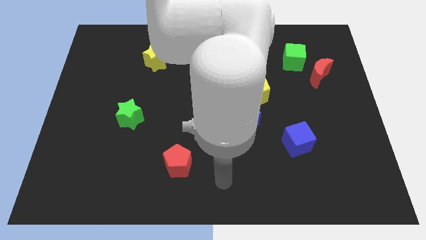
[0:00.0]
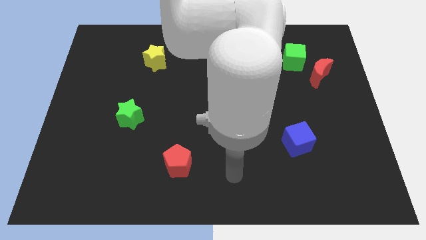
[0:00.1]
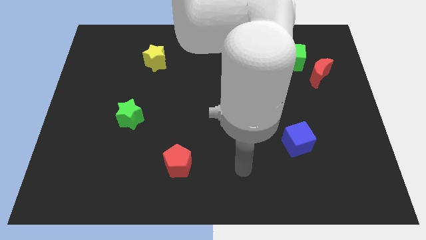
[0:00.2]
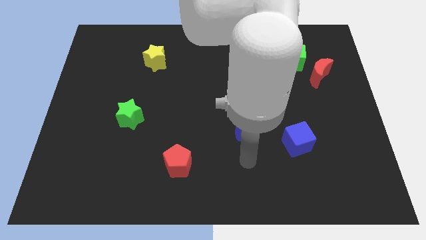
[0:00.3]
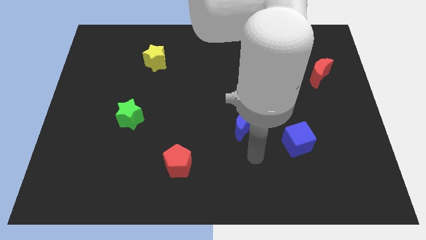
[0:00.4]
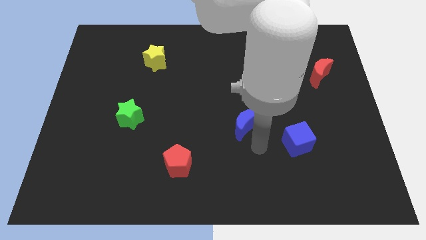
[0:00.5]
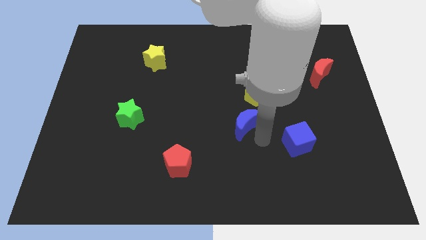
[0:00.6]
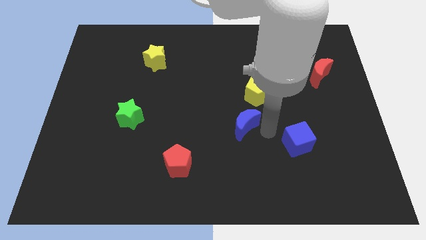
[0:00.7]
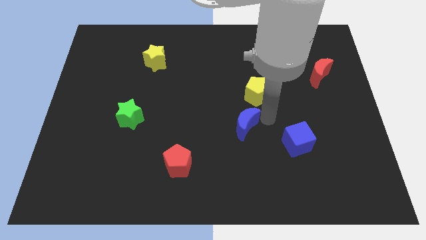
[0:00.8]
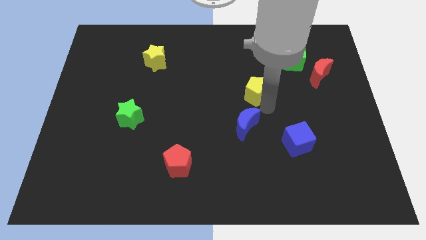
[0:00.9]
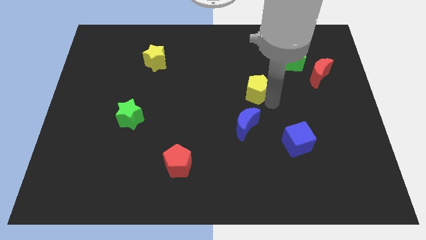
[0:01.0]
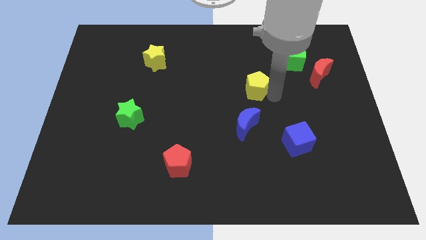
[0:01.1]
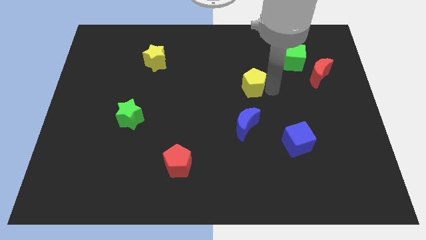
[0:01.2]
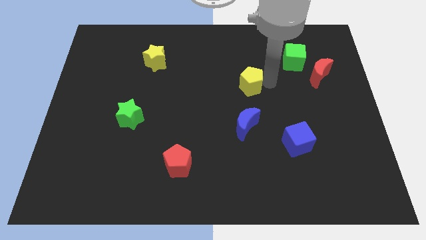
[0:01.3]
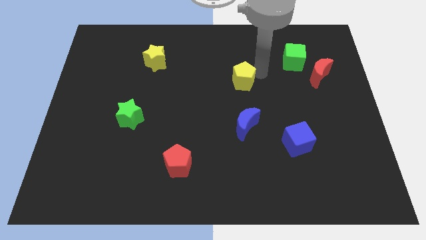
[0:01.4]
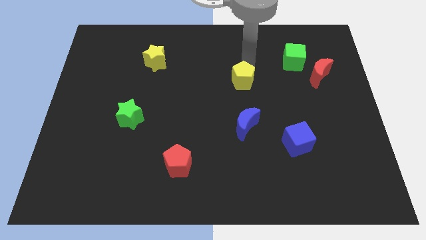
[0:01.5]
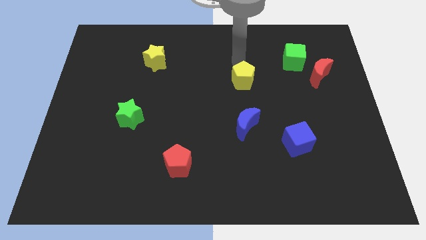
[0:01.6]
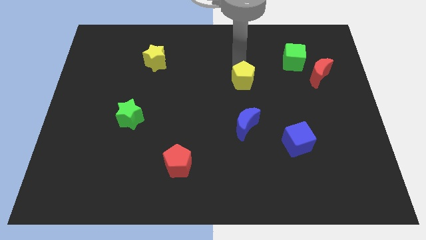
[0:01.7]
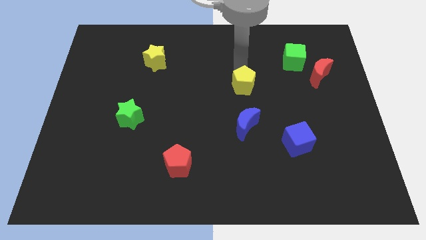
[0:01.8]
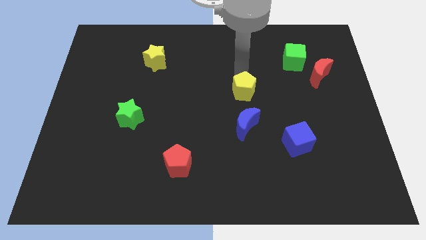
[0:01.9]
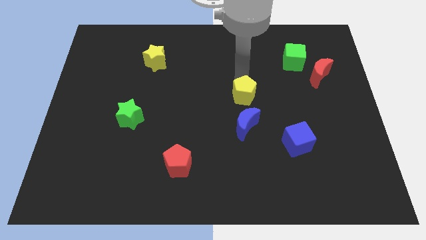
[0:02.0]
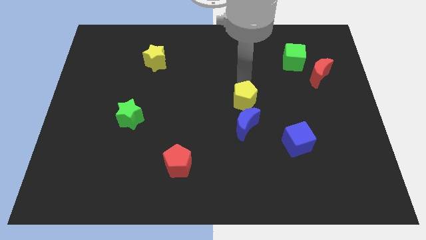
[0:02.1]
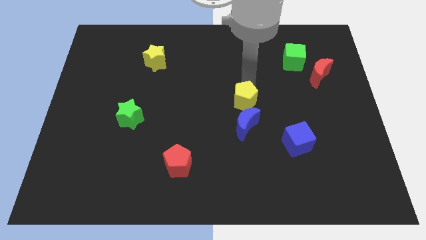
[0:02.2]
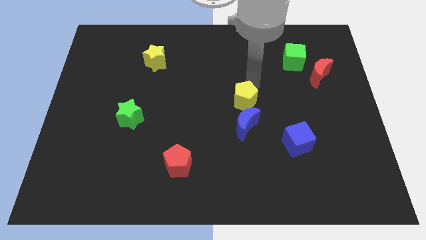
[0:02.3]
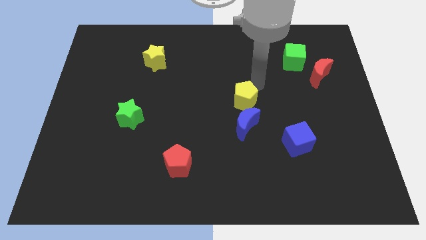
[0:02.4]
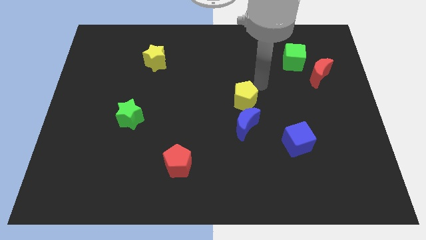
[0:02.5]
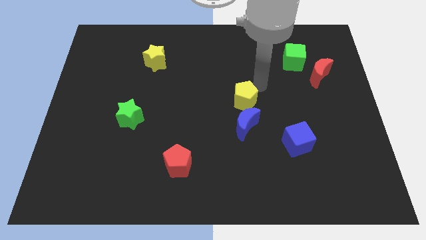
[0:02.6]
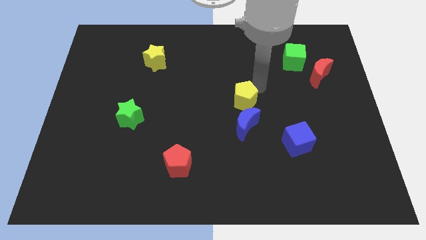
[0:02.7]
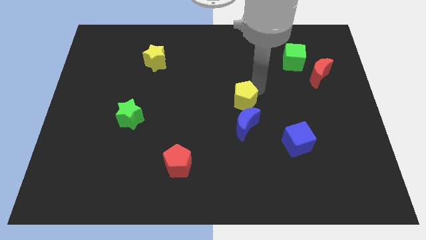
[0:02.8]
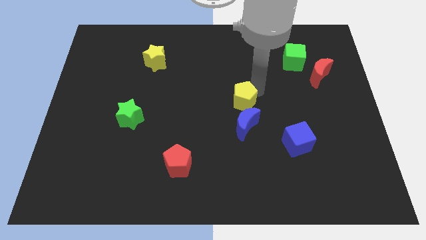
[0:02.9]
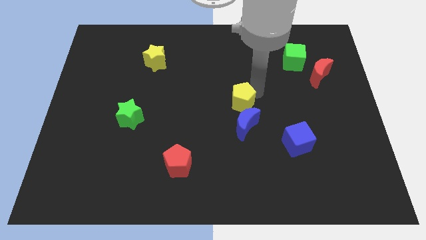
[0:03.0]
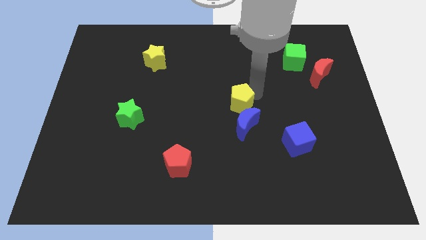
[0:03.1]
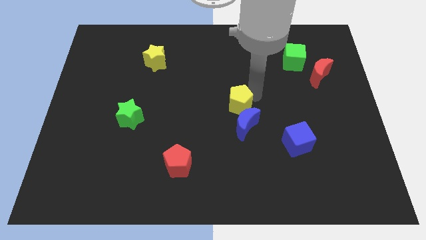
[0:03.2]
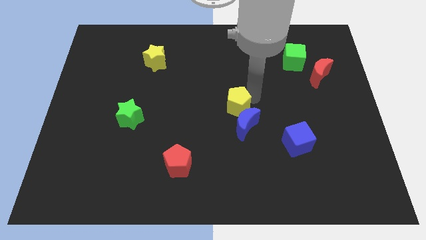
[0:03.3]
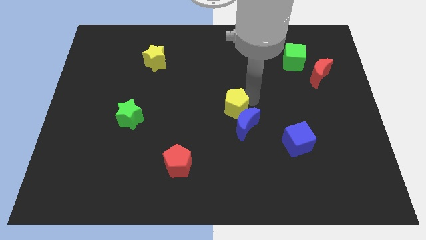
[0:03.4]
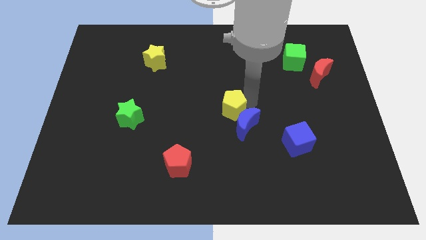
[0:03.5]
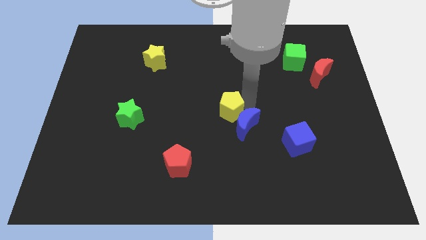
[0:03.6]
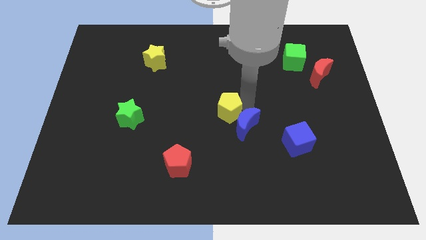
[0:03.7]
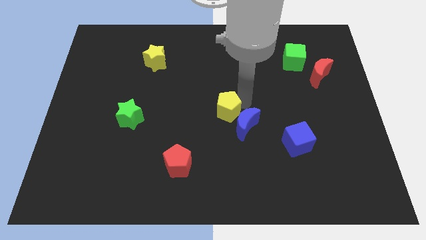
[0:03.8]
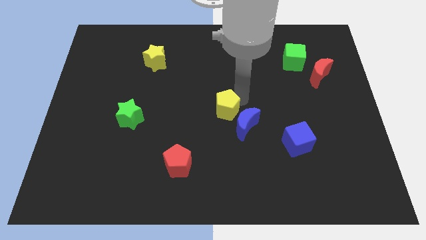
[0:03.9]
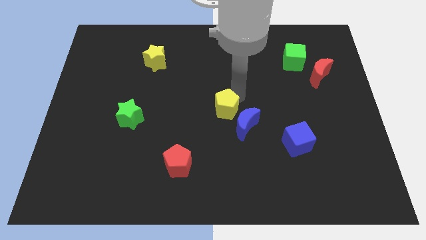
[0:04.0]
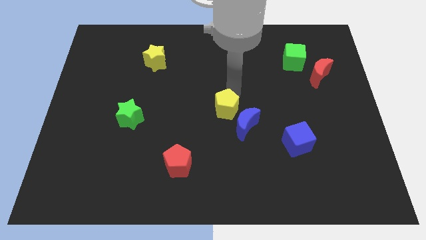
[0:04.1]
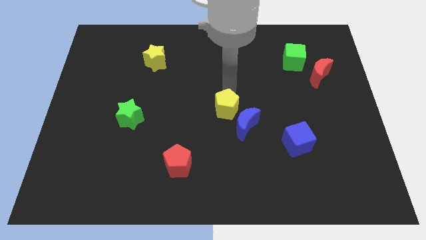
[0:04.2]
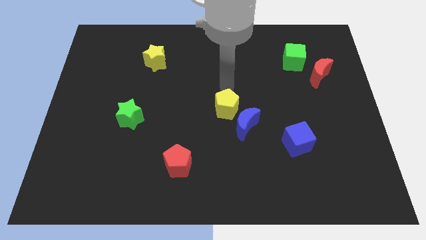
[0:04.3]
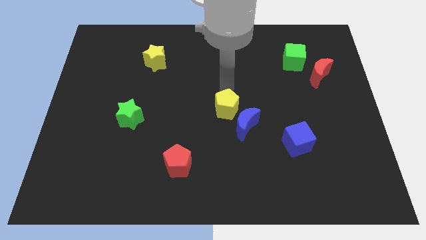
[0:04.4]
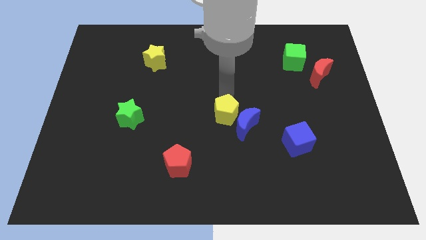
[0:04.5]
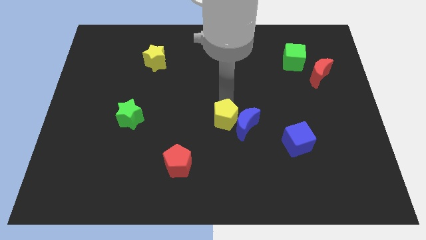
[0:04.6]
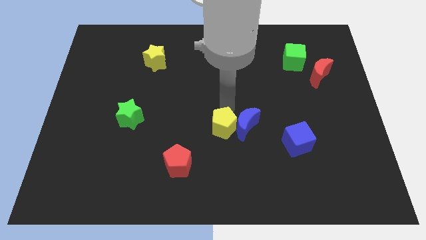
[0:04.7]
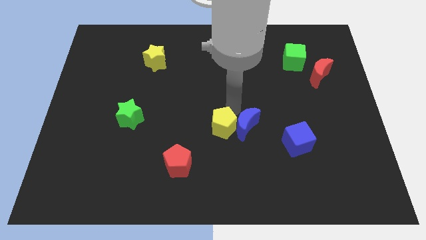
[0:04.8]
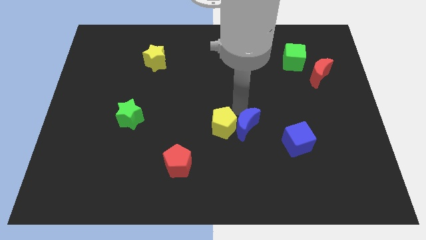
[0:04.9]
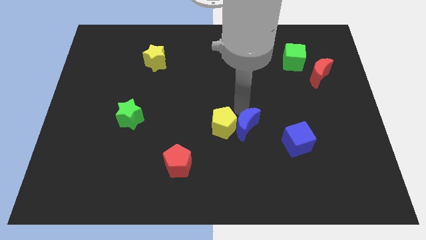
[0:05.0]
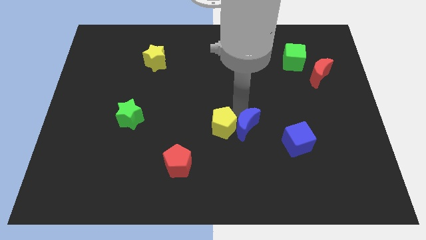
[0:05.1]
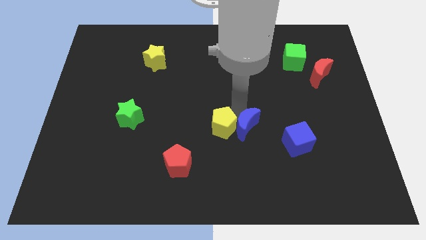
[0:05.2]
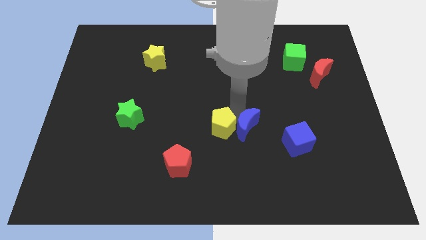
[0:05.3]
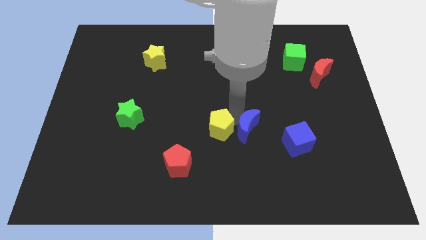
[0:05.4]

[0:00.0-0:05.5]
push the yellow pentagon to the top right of the red pentagon

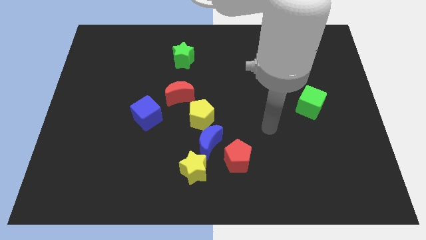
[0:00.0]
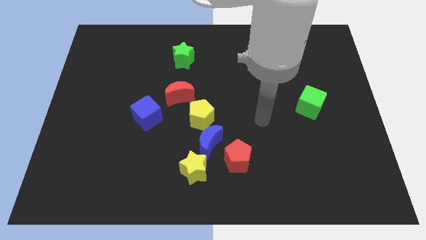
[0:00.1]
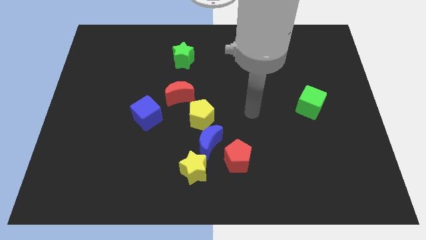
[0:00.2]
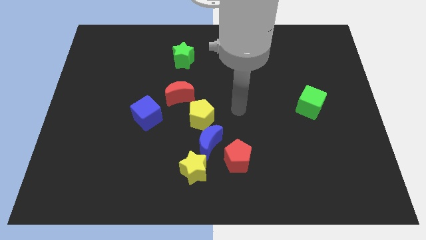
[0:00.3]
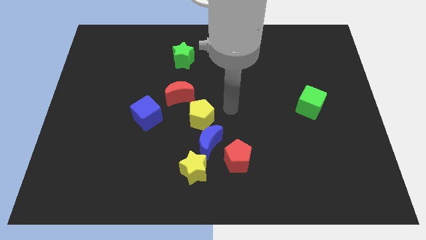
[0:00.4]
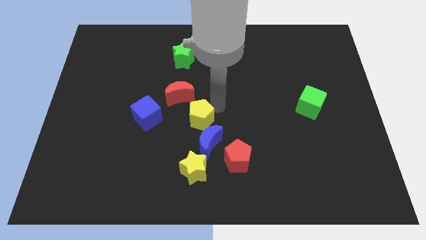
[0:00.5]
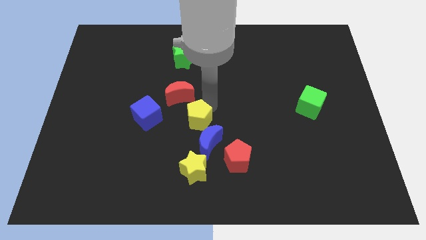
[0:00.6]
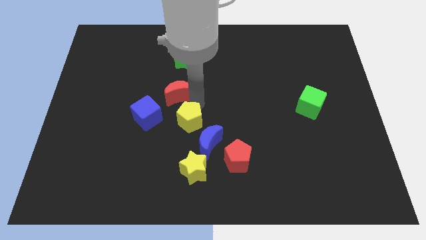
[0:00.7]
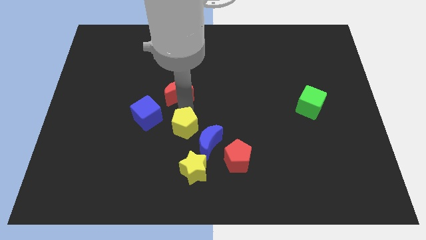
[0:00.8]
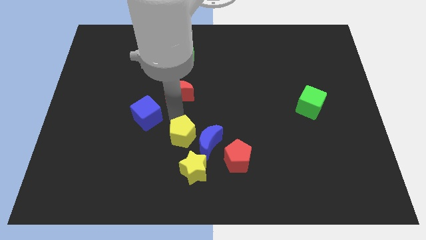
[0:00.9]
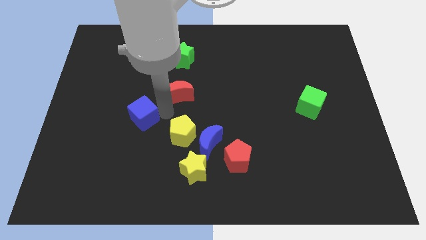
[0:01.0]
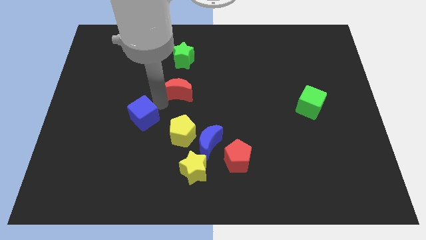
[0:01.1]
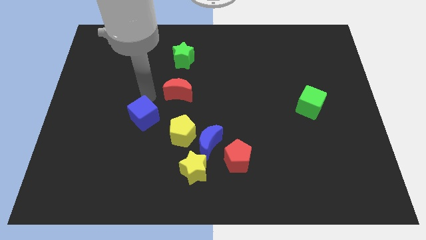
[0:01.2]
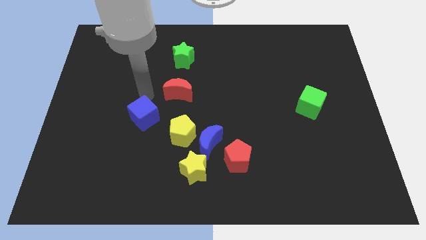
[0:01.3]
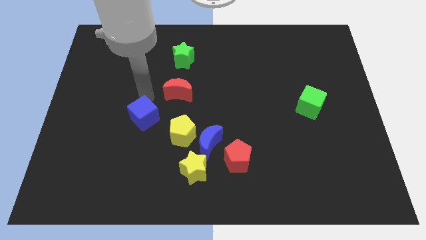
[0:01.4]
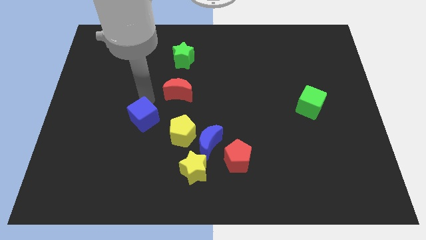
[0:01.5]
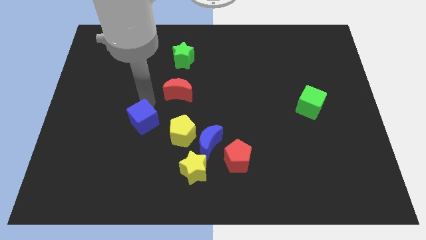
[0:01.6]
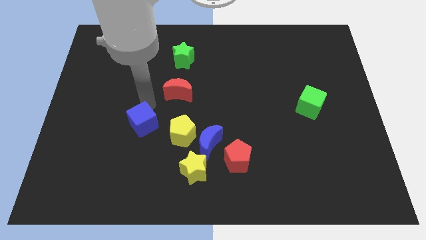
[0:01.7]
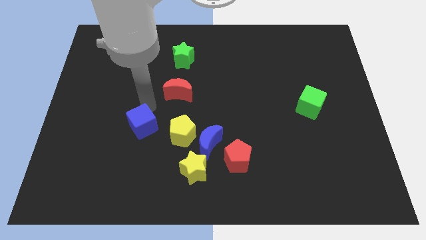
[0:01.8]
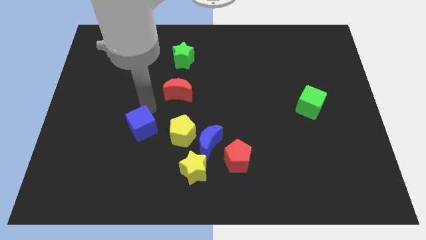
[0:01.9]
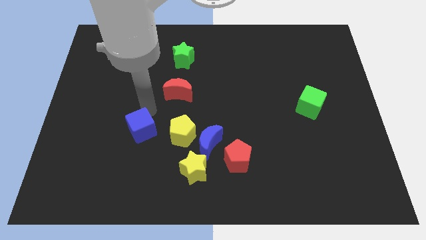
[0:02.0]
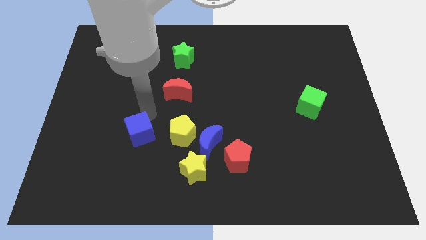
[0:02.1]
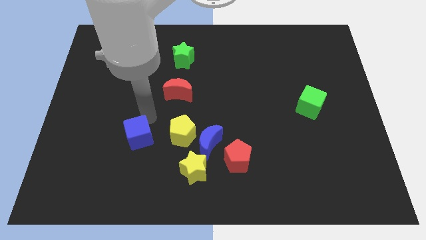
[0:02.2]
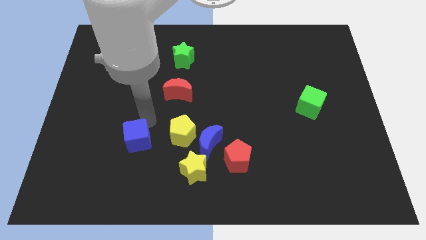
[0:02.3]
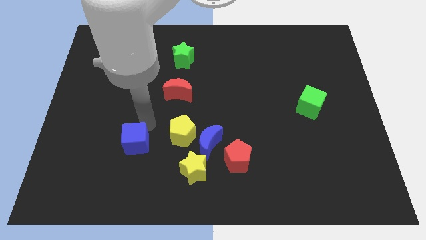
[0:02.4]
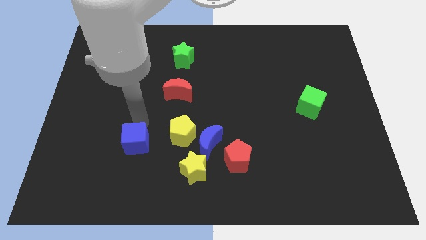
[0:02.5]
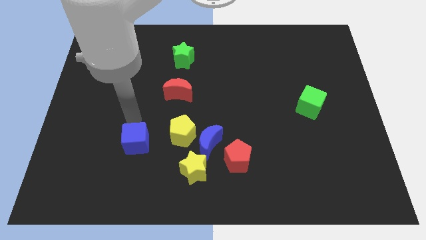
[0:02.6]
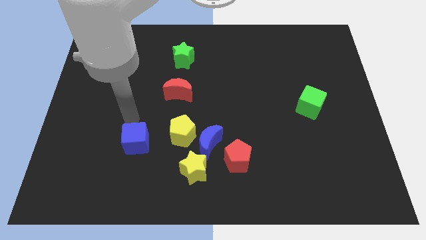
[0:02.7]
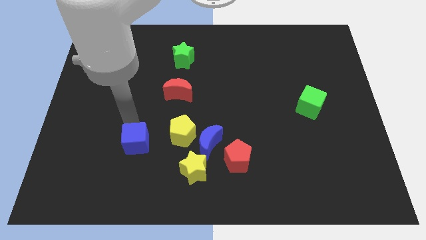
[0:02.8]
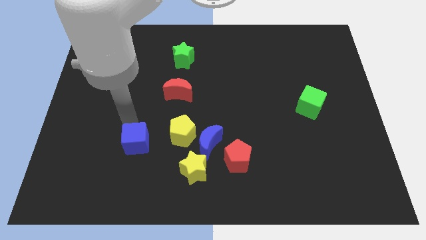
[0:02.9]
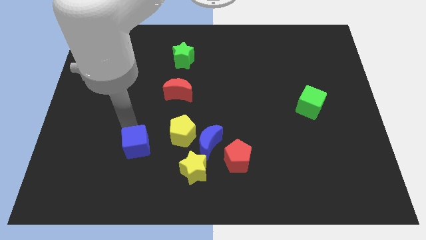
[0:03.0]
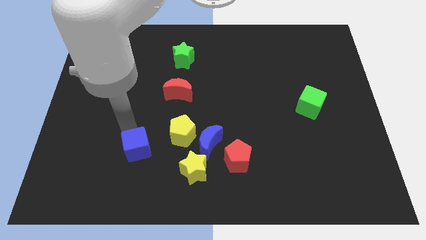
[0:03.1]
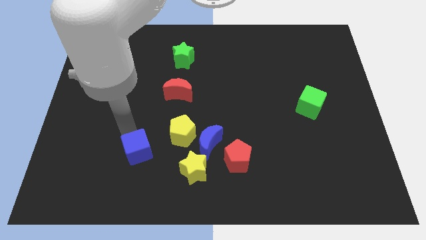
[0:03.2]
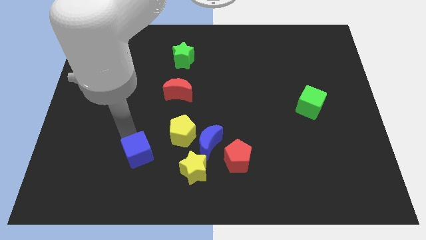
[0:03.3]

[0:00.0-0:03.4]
put the blue cube left of the yellow star
